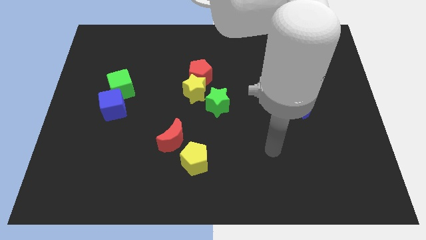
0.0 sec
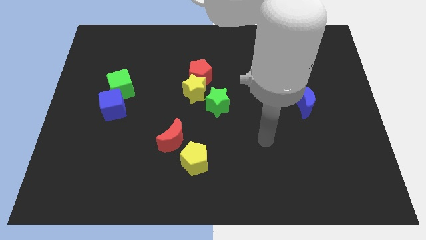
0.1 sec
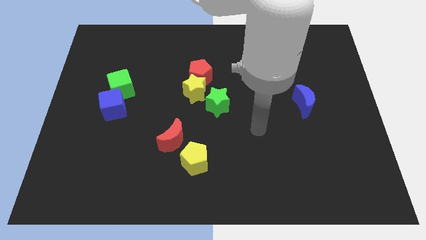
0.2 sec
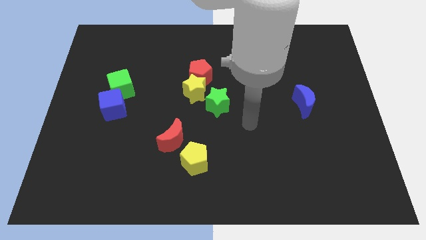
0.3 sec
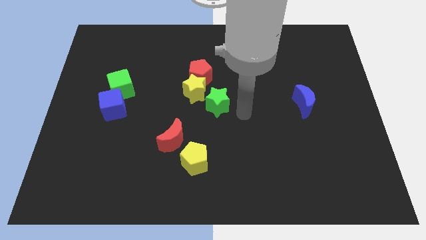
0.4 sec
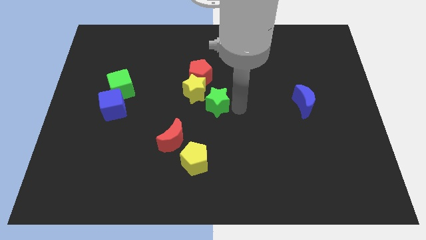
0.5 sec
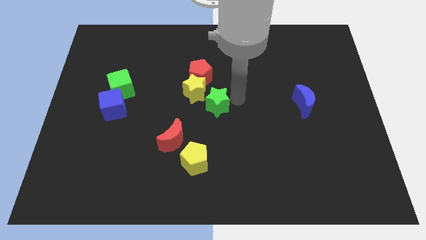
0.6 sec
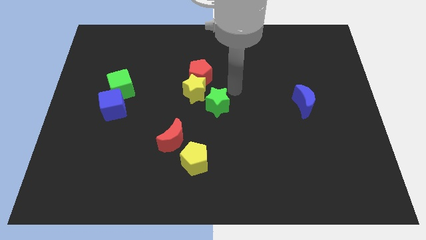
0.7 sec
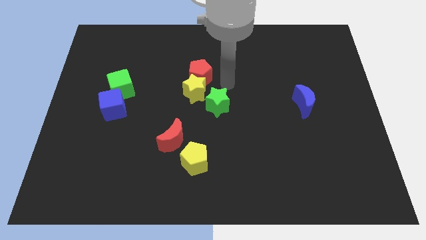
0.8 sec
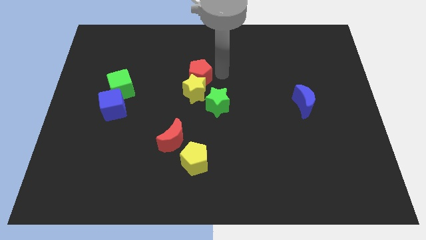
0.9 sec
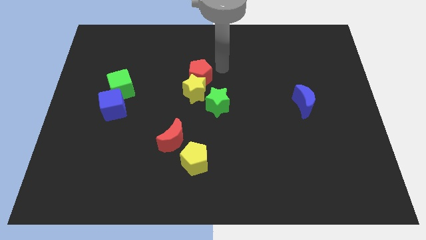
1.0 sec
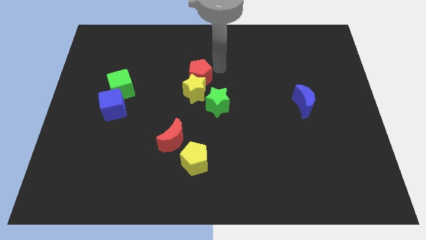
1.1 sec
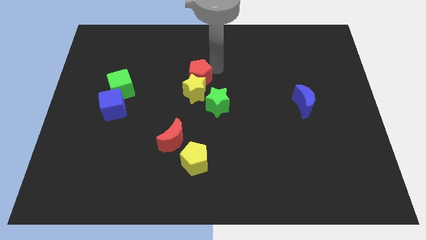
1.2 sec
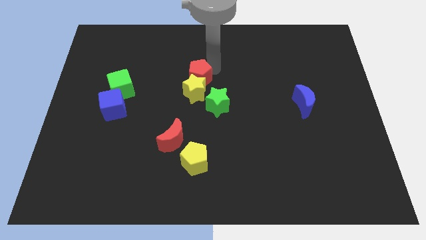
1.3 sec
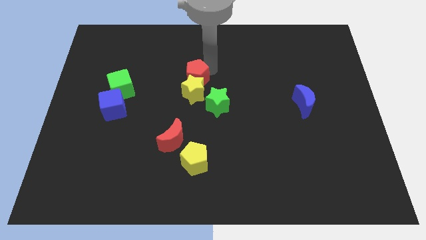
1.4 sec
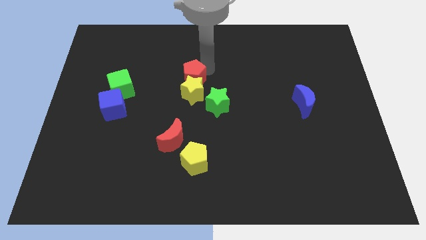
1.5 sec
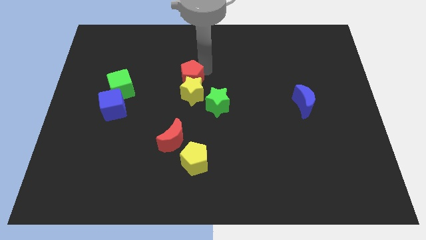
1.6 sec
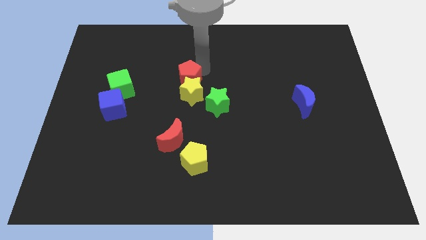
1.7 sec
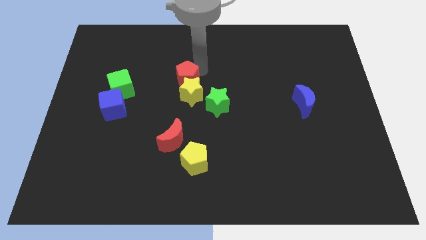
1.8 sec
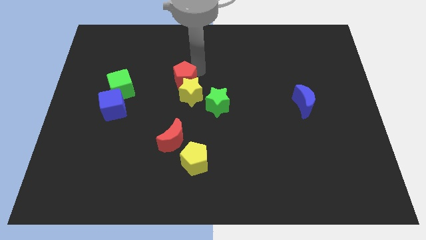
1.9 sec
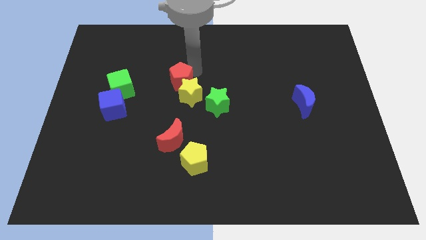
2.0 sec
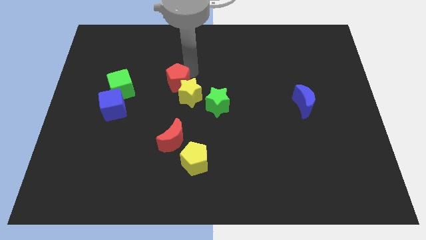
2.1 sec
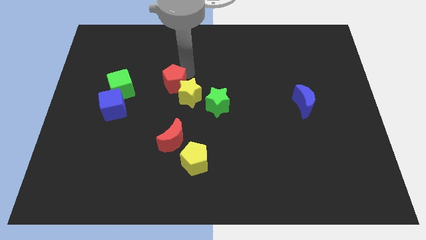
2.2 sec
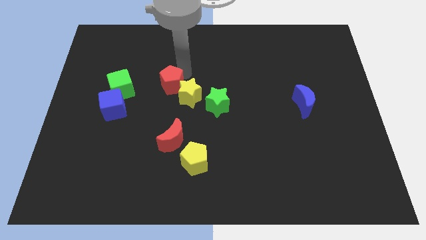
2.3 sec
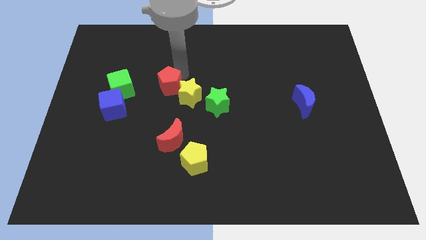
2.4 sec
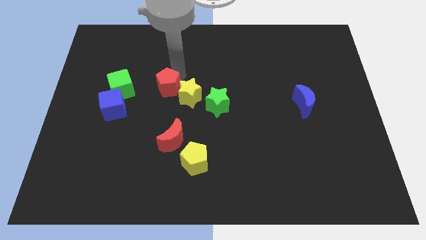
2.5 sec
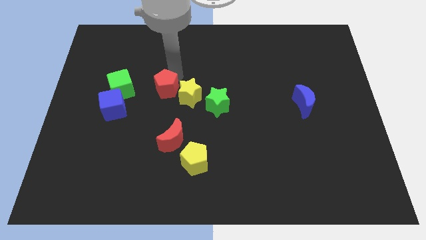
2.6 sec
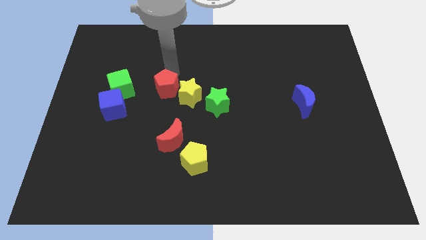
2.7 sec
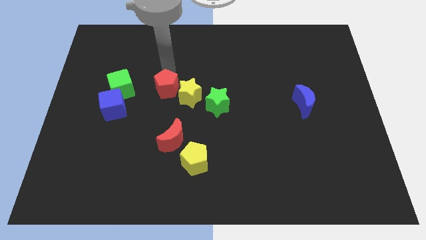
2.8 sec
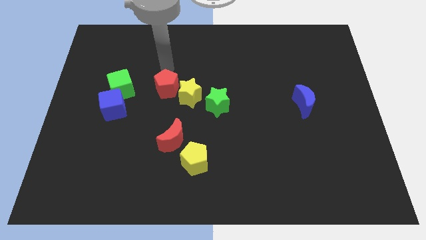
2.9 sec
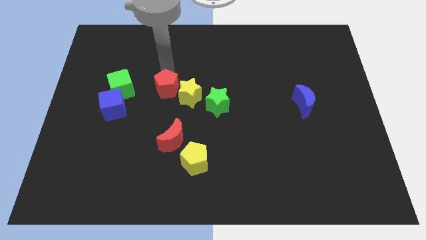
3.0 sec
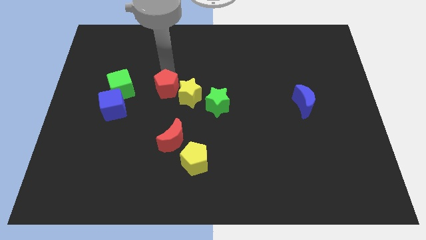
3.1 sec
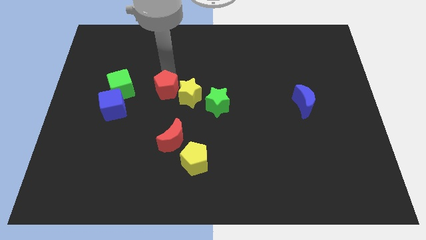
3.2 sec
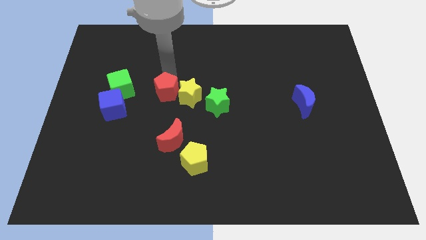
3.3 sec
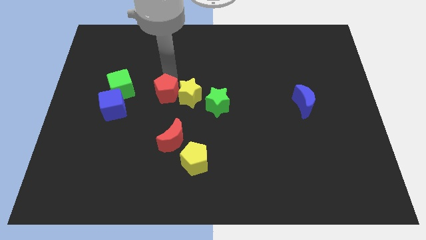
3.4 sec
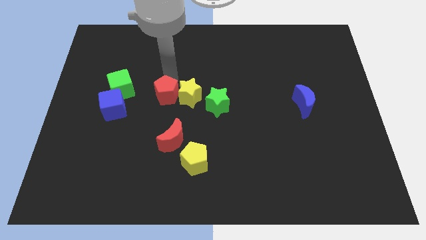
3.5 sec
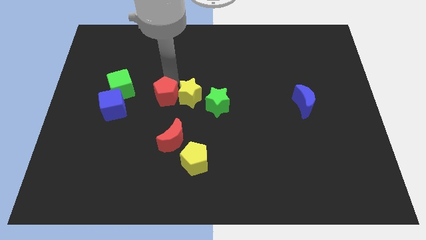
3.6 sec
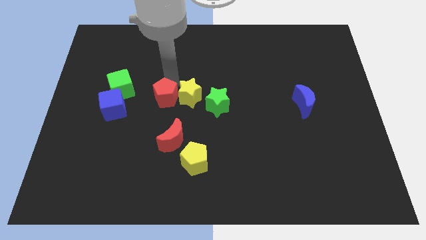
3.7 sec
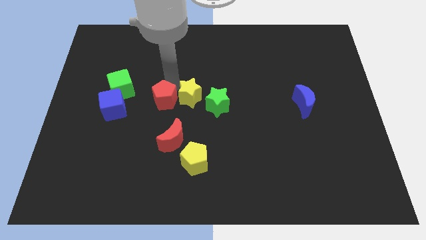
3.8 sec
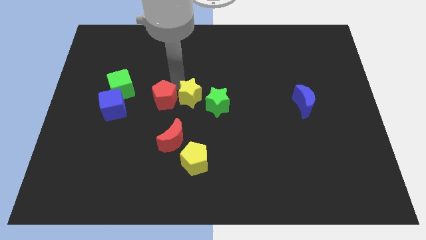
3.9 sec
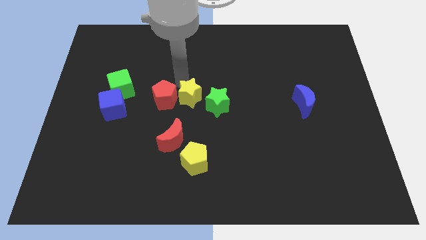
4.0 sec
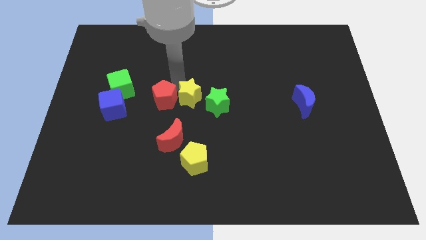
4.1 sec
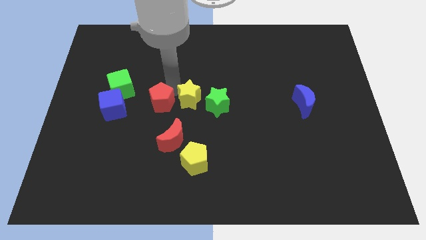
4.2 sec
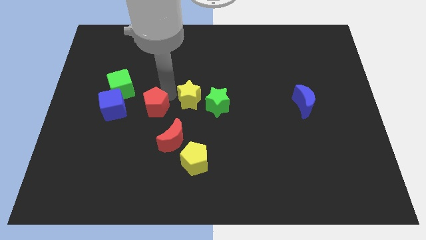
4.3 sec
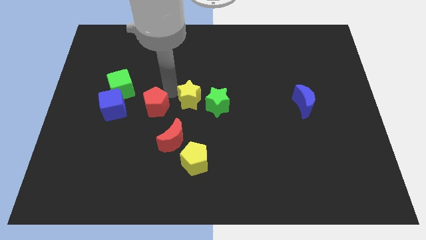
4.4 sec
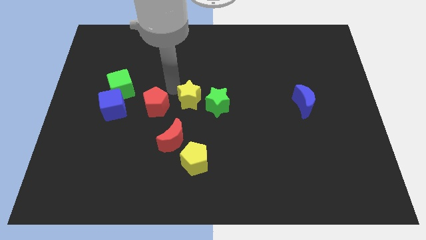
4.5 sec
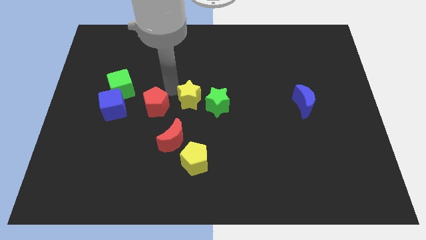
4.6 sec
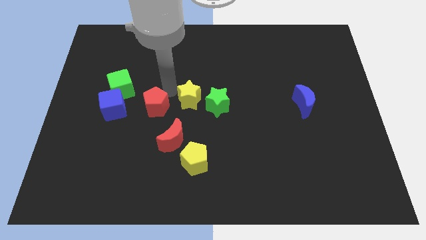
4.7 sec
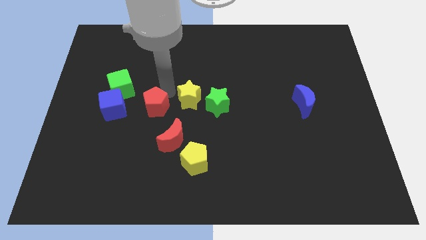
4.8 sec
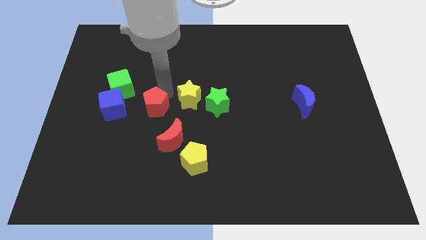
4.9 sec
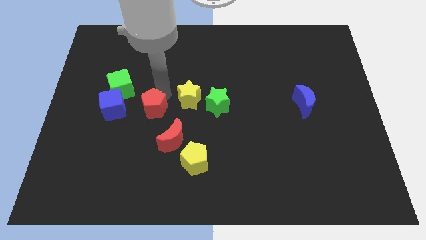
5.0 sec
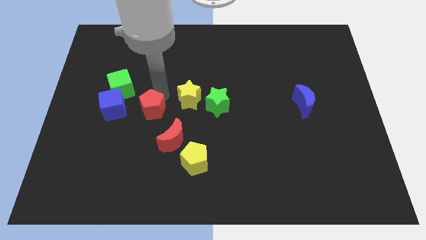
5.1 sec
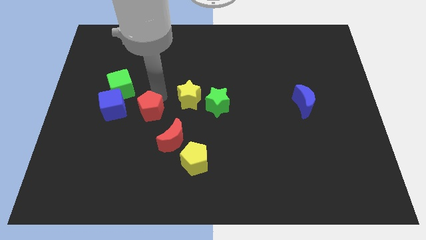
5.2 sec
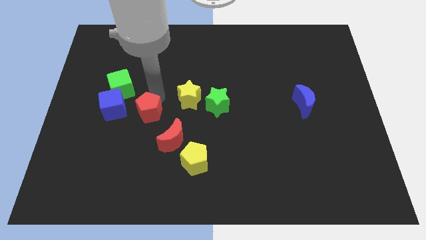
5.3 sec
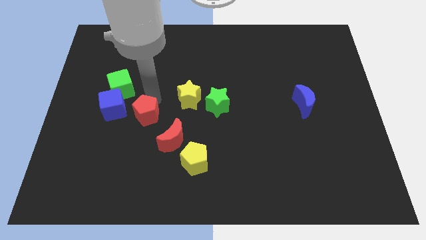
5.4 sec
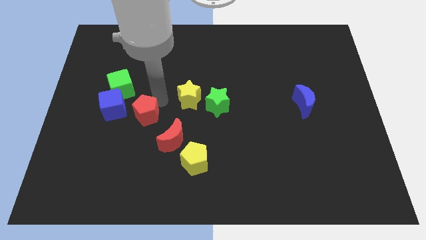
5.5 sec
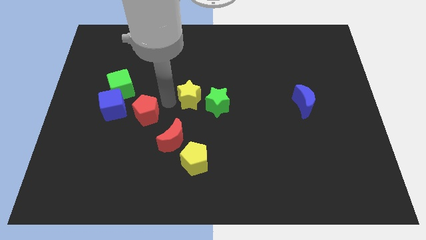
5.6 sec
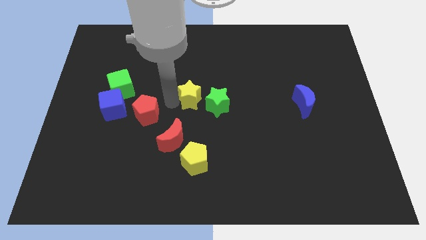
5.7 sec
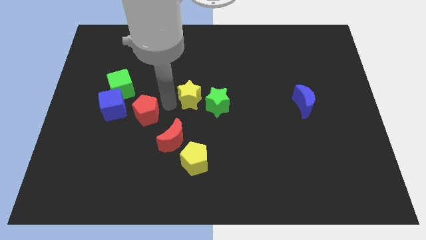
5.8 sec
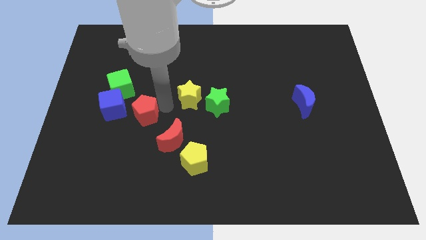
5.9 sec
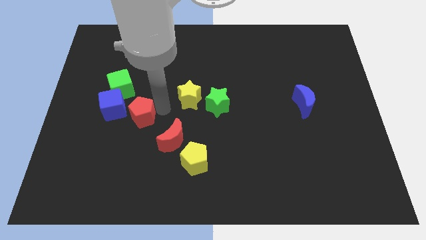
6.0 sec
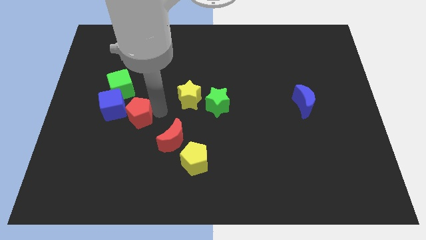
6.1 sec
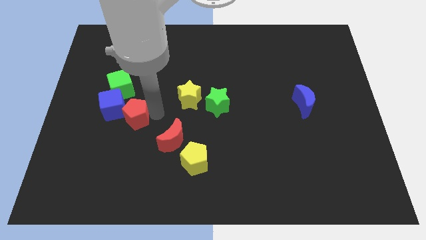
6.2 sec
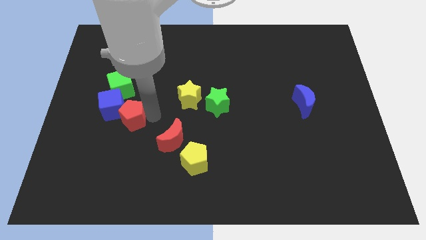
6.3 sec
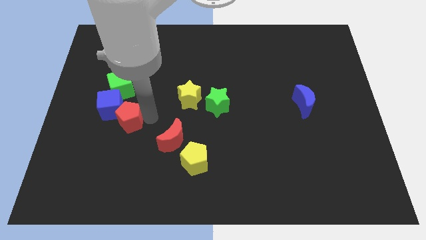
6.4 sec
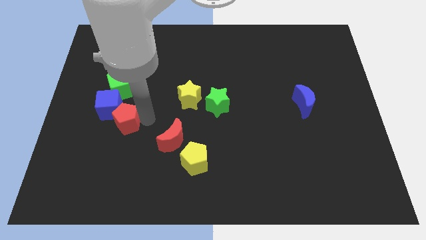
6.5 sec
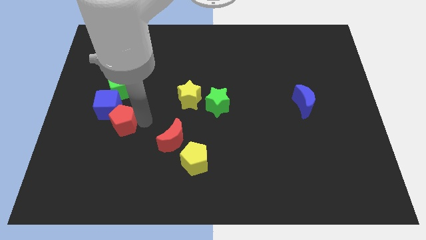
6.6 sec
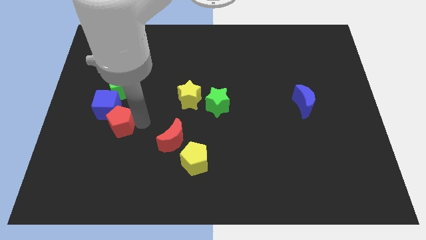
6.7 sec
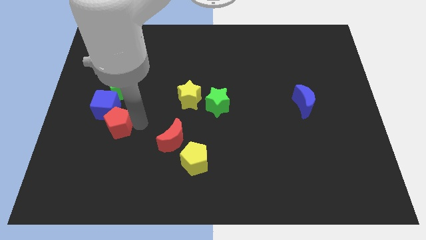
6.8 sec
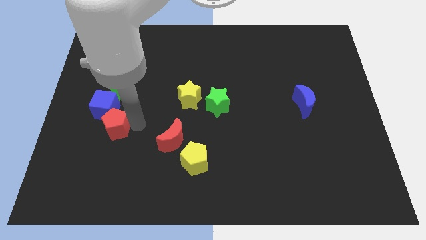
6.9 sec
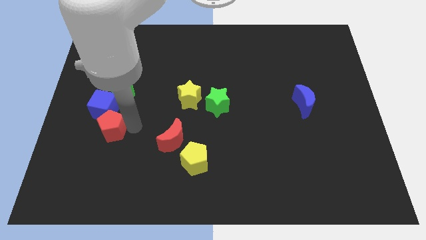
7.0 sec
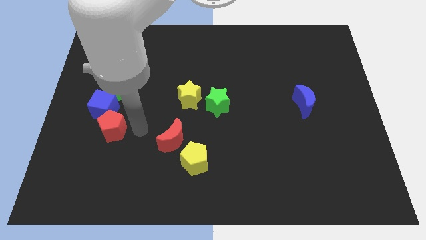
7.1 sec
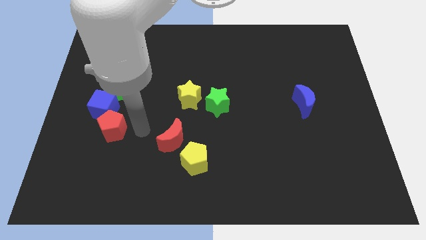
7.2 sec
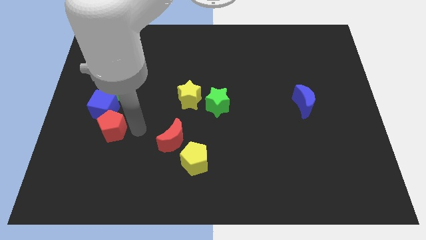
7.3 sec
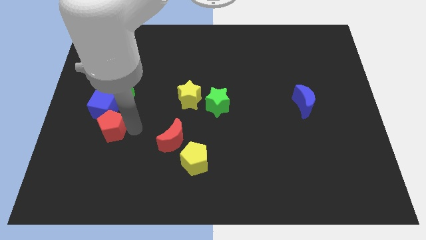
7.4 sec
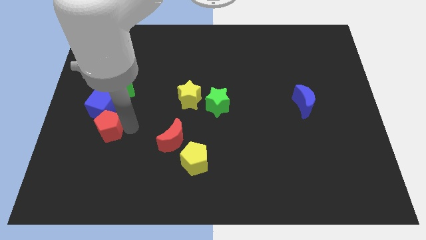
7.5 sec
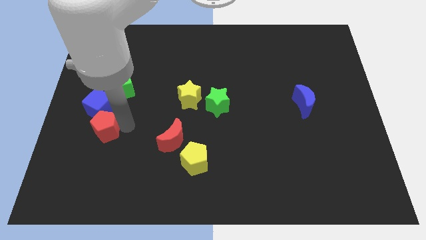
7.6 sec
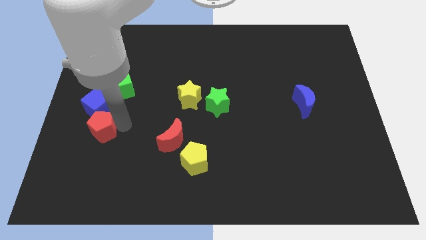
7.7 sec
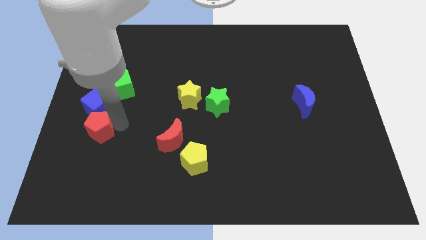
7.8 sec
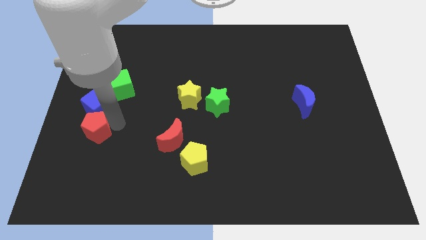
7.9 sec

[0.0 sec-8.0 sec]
put the red pentagon diagonally down and to the left of the blue cube
